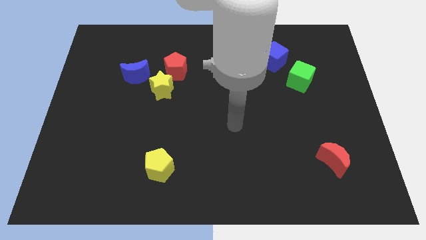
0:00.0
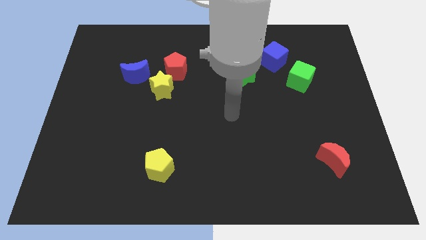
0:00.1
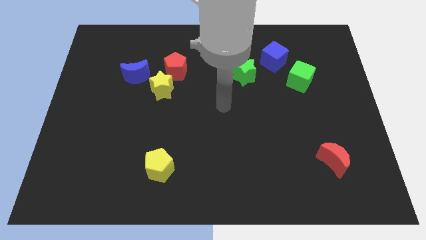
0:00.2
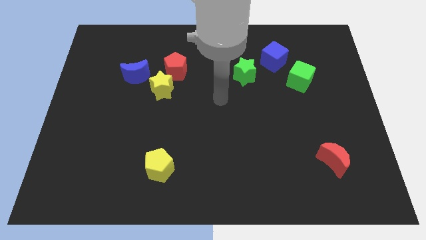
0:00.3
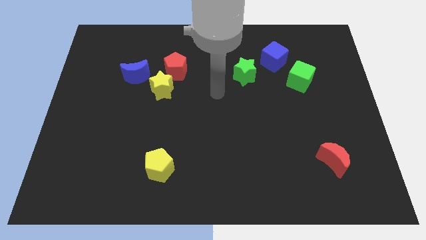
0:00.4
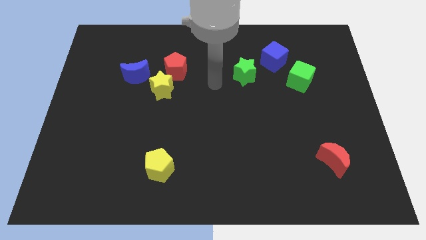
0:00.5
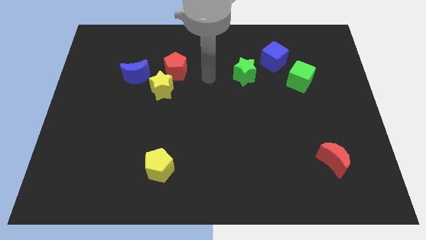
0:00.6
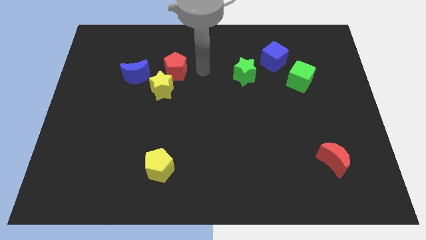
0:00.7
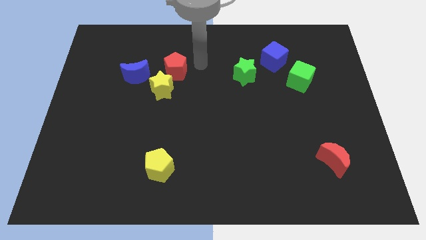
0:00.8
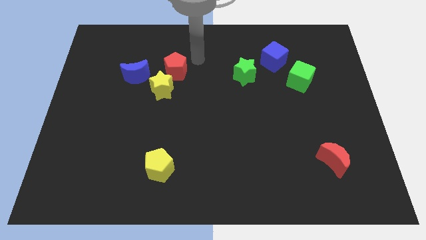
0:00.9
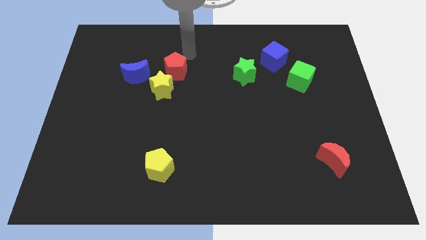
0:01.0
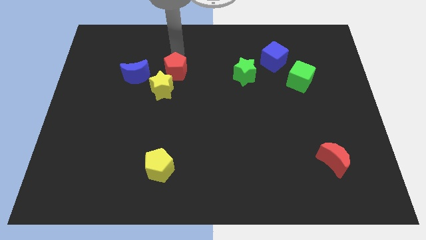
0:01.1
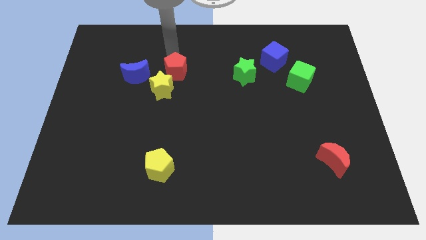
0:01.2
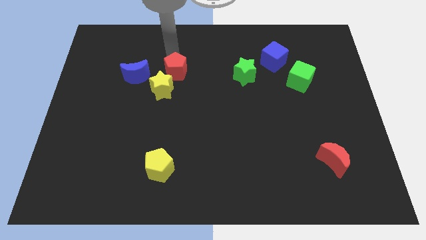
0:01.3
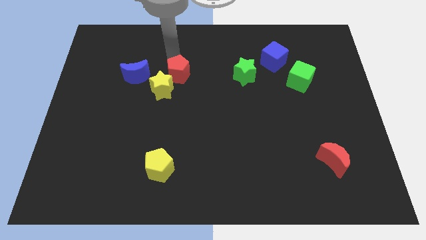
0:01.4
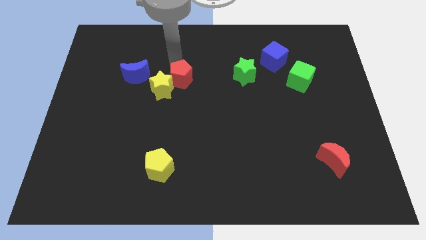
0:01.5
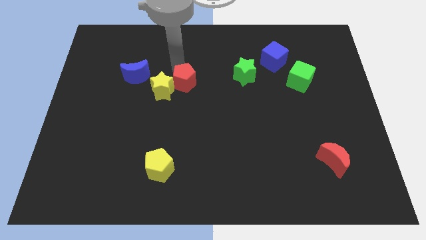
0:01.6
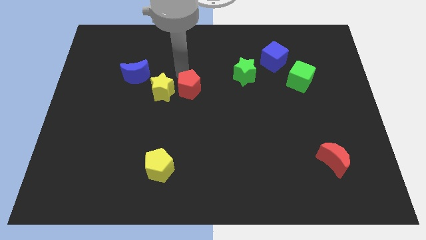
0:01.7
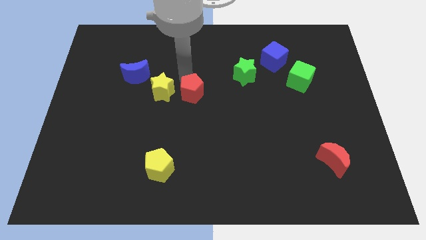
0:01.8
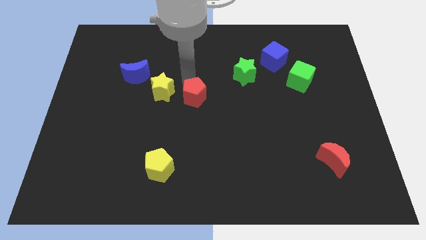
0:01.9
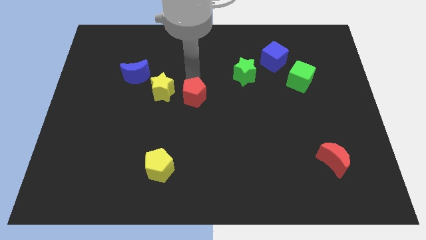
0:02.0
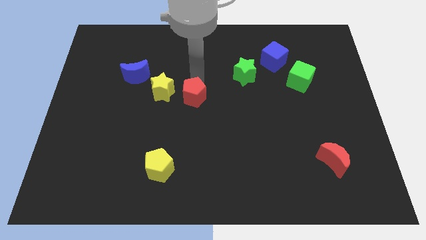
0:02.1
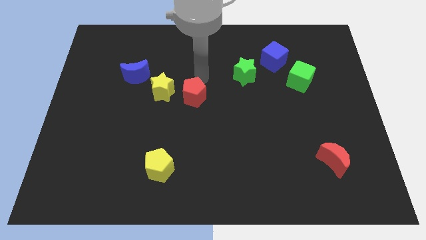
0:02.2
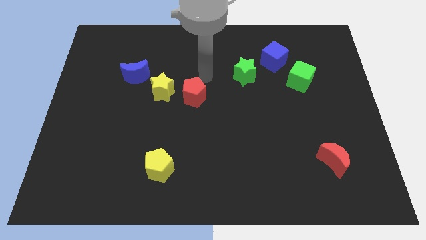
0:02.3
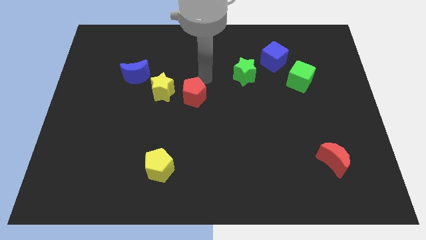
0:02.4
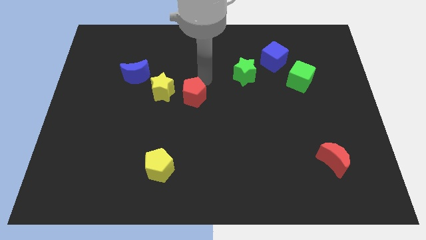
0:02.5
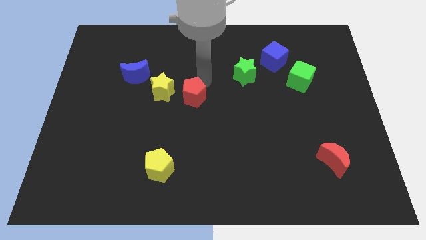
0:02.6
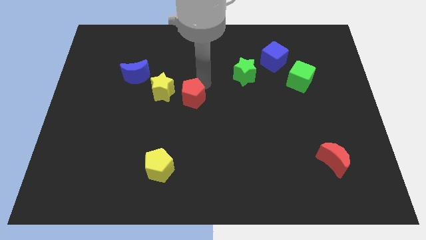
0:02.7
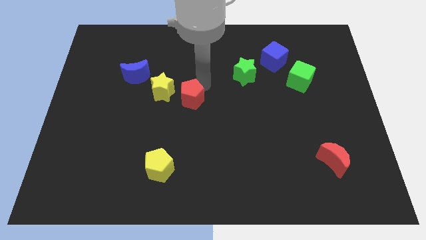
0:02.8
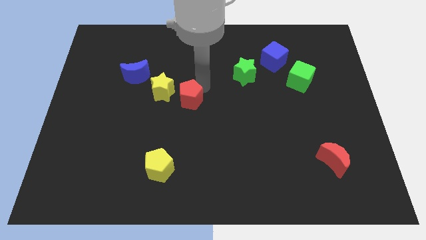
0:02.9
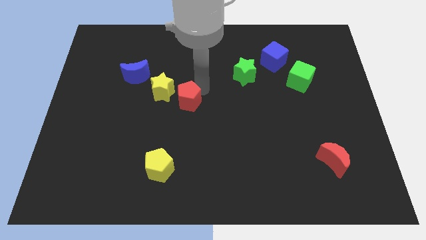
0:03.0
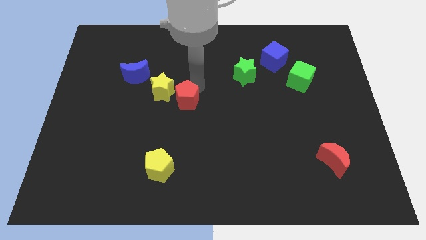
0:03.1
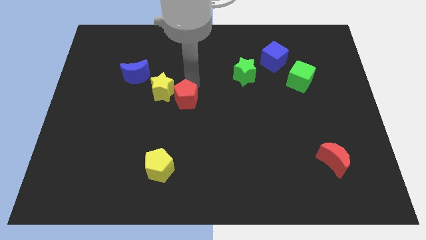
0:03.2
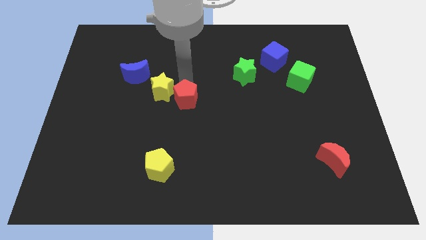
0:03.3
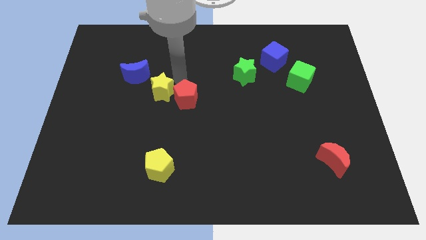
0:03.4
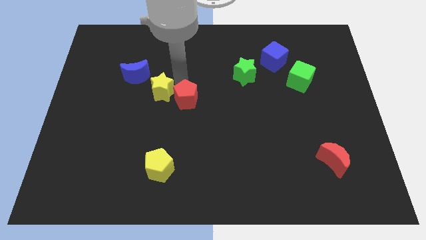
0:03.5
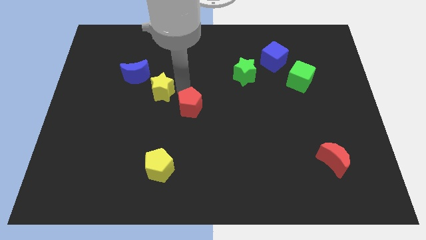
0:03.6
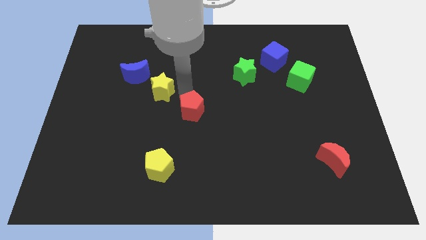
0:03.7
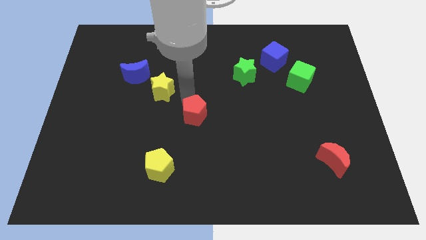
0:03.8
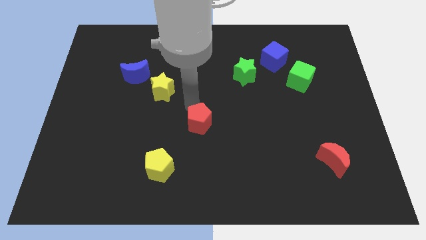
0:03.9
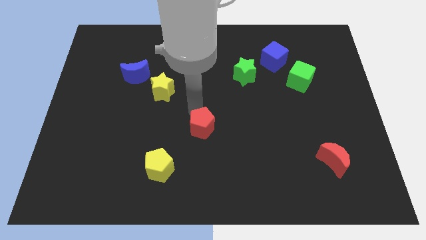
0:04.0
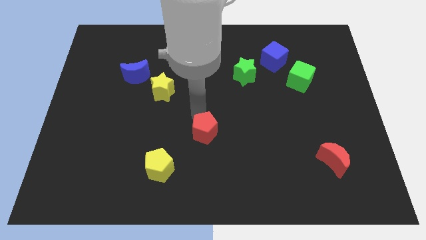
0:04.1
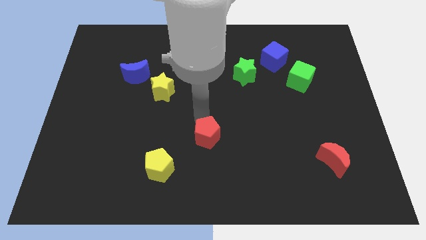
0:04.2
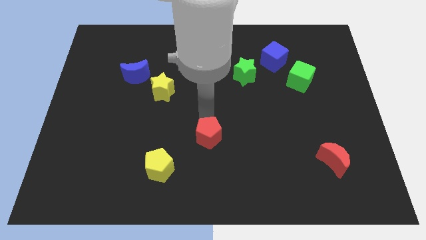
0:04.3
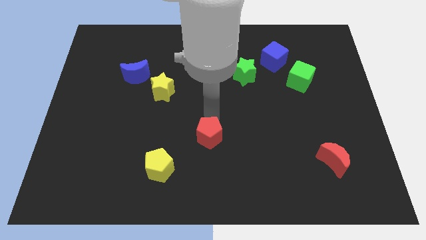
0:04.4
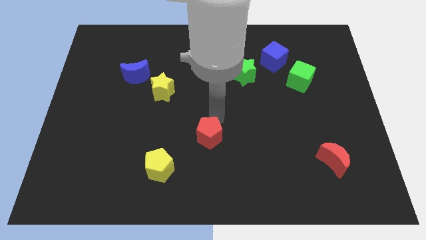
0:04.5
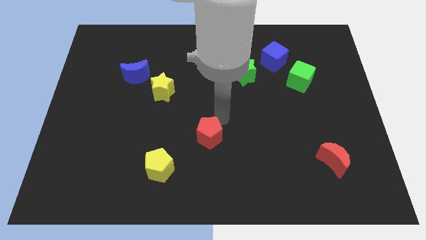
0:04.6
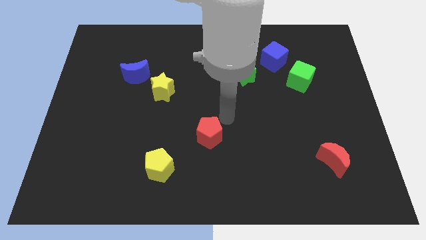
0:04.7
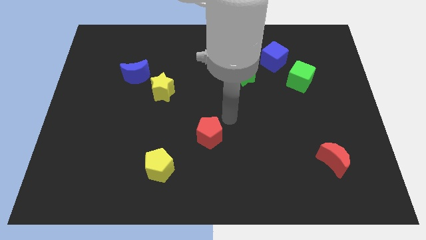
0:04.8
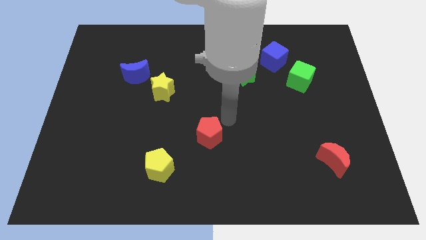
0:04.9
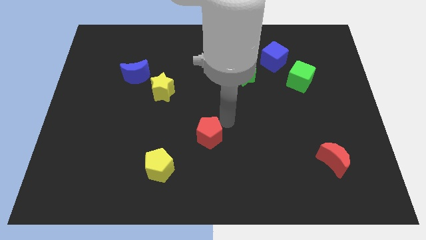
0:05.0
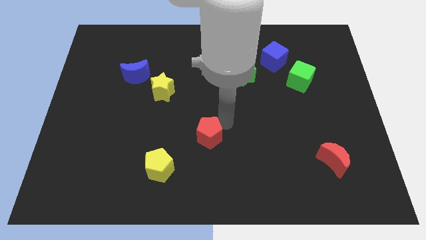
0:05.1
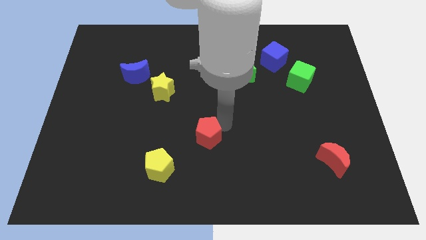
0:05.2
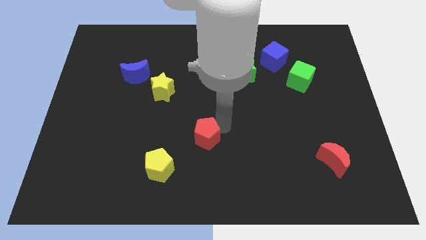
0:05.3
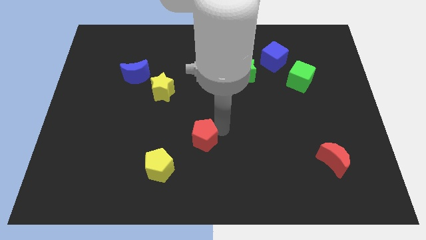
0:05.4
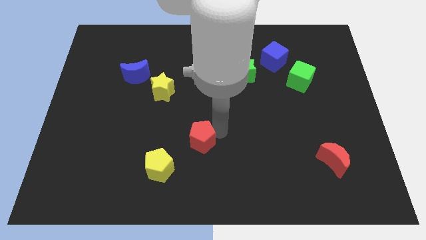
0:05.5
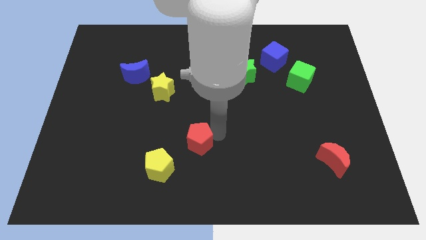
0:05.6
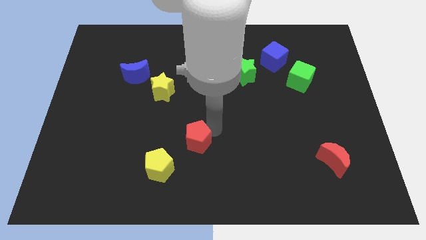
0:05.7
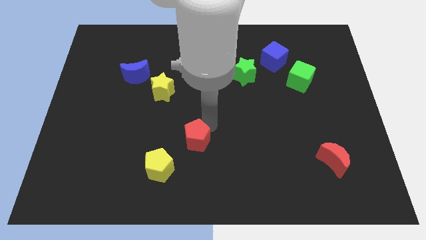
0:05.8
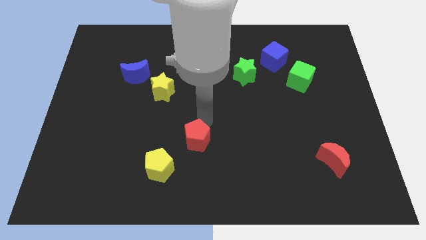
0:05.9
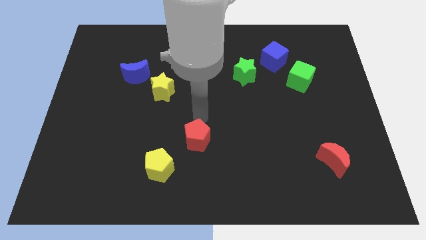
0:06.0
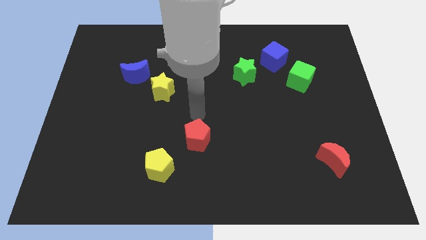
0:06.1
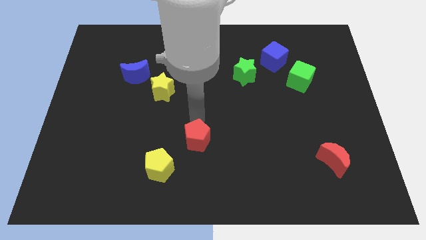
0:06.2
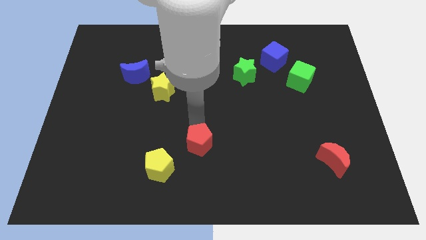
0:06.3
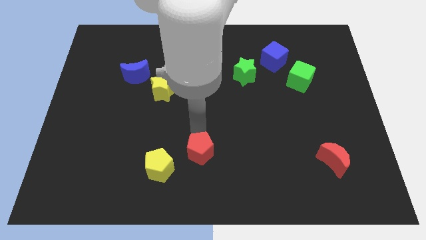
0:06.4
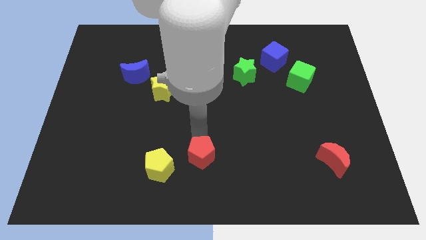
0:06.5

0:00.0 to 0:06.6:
move the red pentagon to the bottom side
